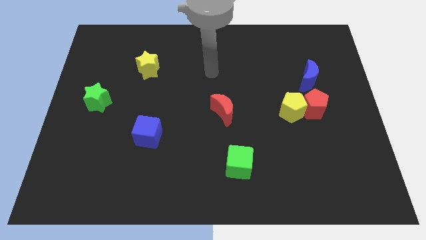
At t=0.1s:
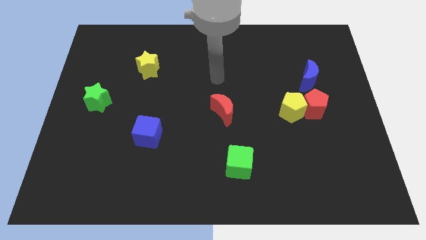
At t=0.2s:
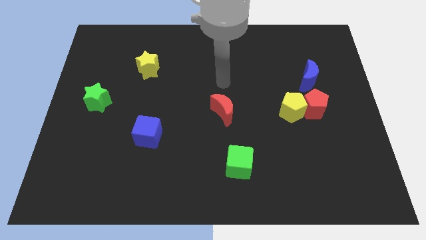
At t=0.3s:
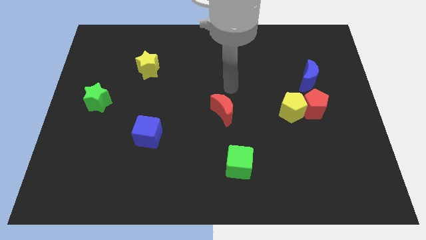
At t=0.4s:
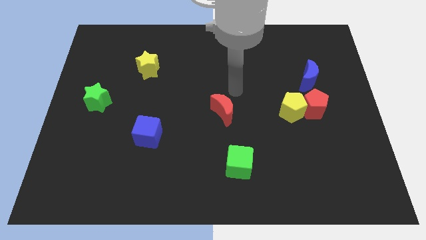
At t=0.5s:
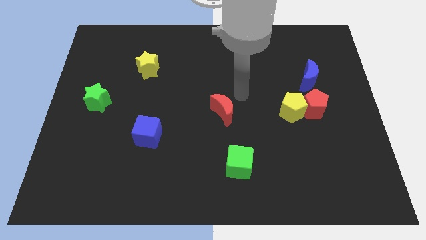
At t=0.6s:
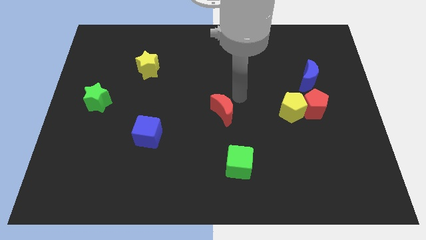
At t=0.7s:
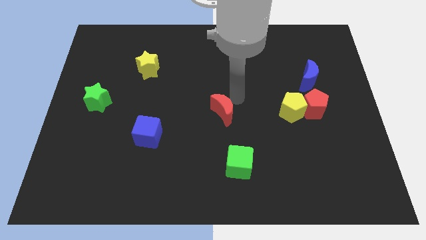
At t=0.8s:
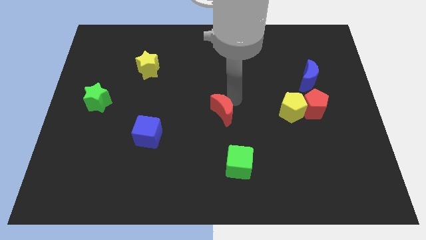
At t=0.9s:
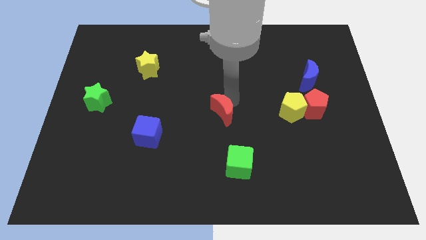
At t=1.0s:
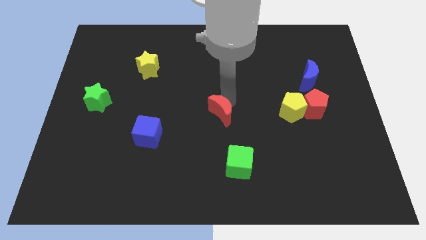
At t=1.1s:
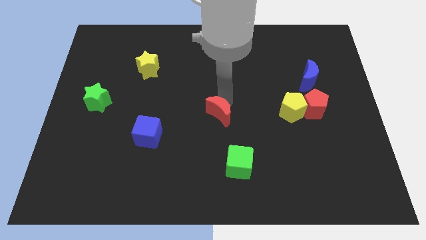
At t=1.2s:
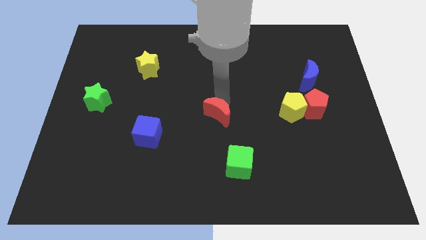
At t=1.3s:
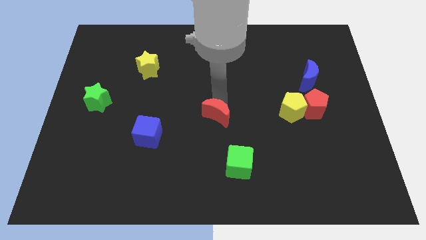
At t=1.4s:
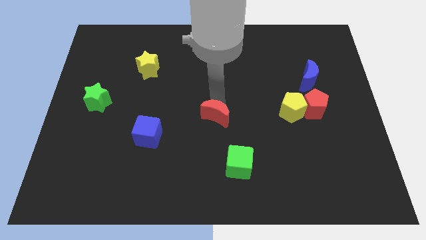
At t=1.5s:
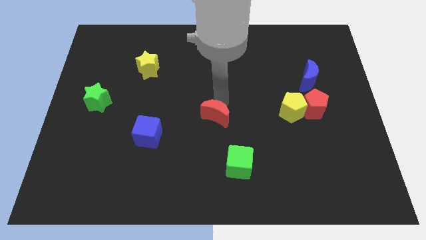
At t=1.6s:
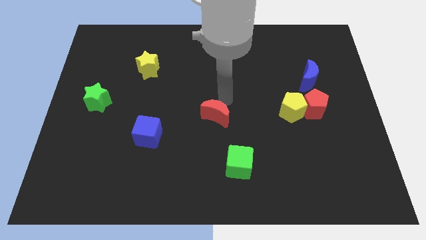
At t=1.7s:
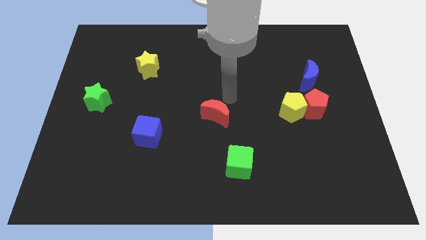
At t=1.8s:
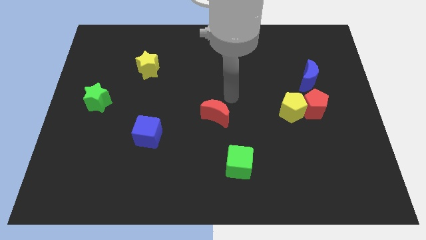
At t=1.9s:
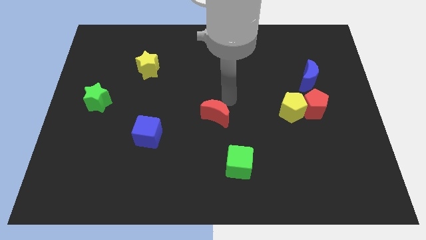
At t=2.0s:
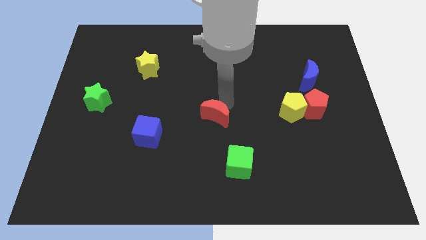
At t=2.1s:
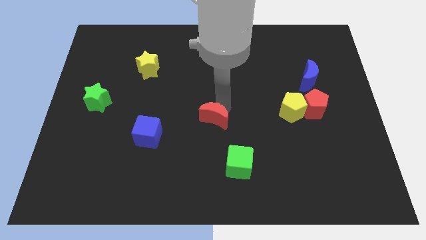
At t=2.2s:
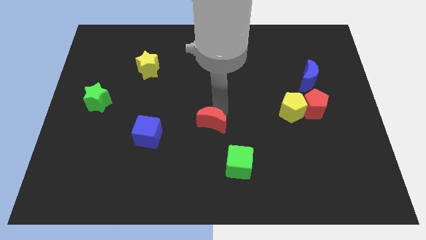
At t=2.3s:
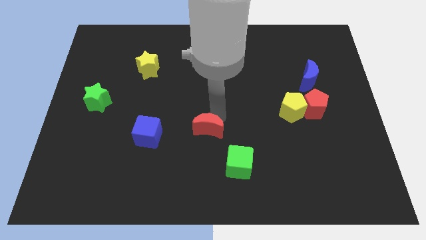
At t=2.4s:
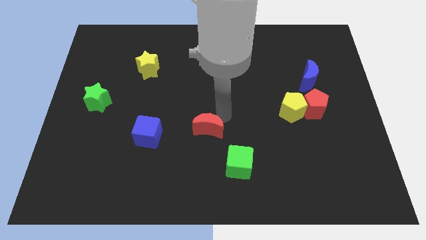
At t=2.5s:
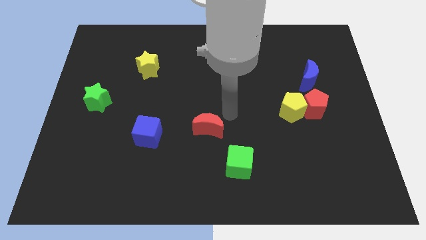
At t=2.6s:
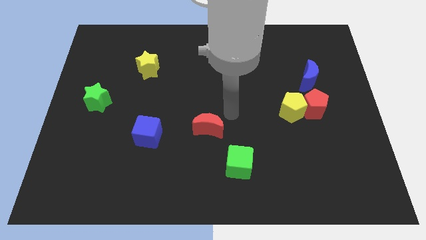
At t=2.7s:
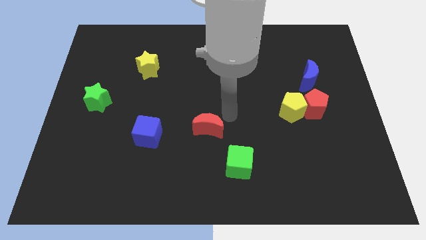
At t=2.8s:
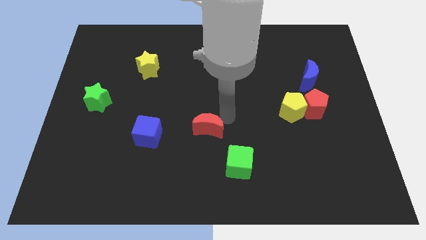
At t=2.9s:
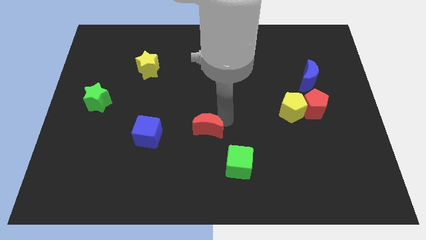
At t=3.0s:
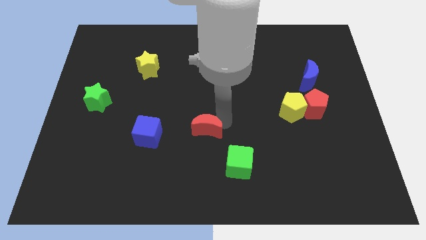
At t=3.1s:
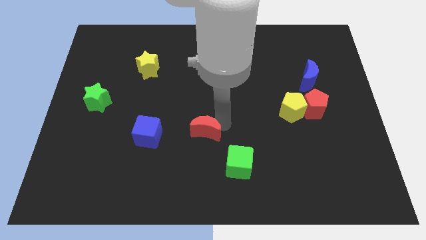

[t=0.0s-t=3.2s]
slide the red moon downwards and then left slightly

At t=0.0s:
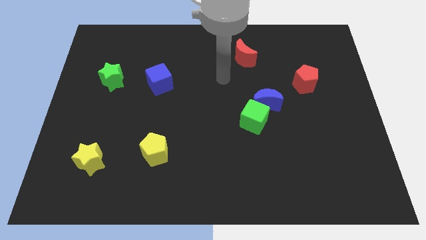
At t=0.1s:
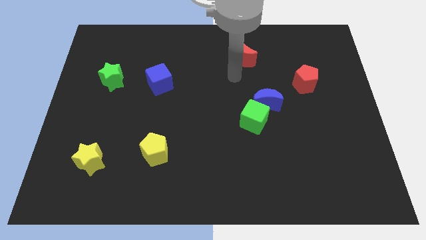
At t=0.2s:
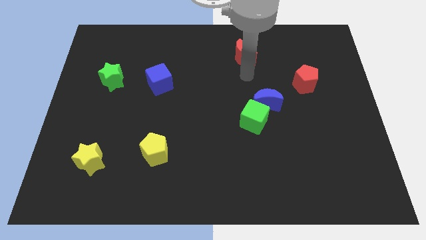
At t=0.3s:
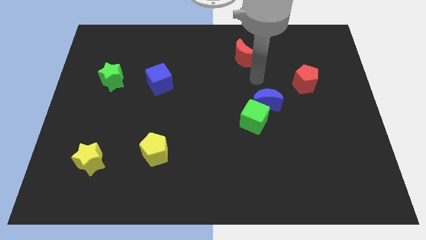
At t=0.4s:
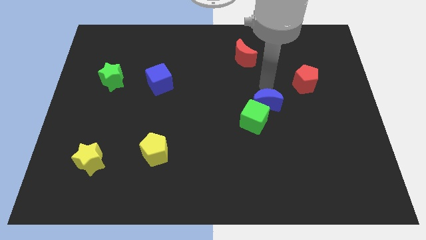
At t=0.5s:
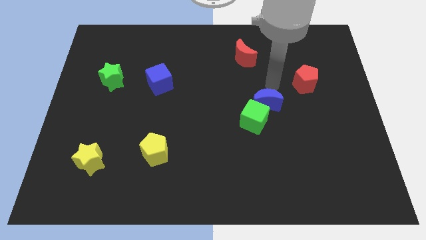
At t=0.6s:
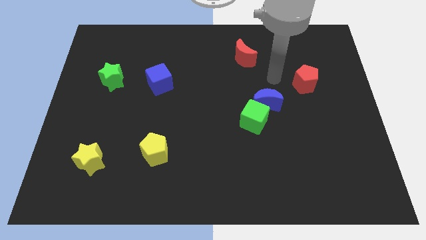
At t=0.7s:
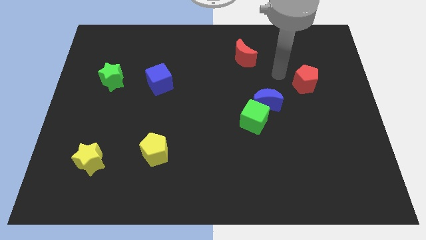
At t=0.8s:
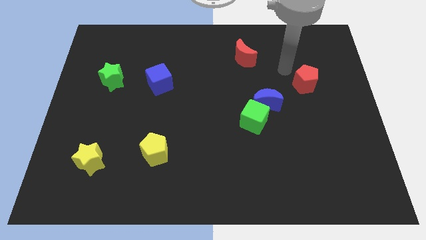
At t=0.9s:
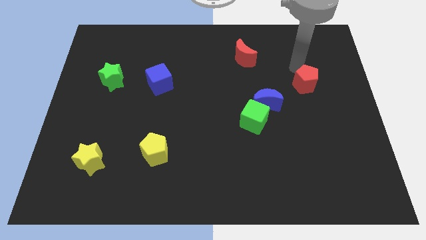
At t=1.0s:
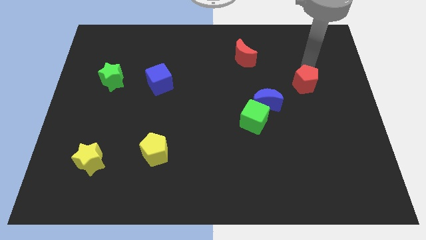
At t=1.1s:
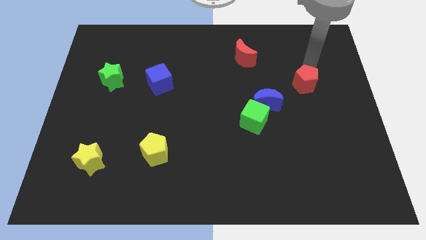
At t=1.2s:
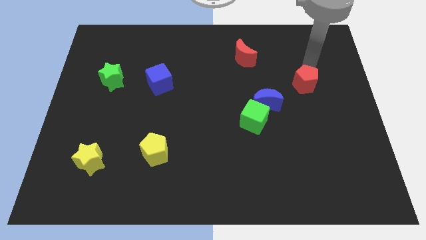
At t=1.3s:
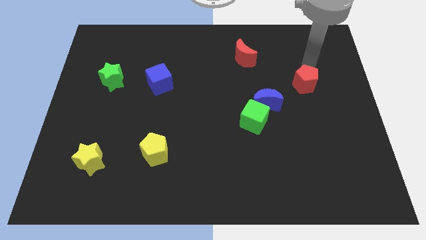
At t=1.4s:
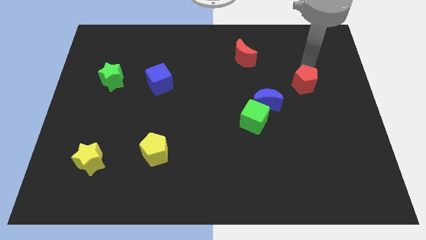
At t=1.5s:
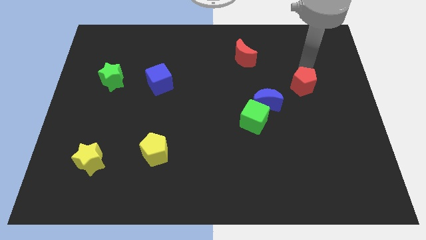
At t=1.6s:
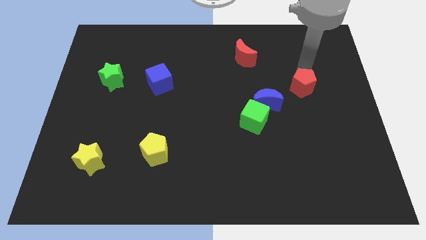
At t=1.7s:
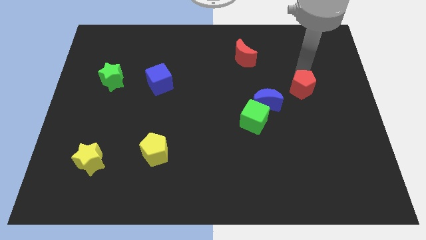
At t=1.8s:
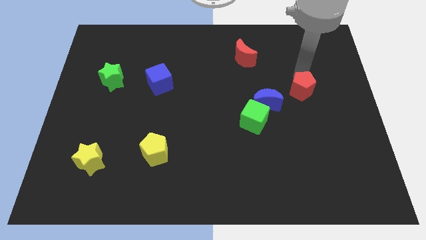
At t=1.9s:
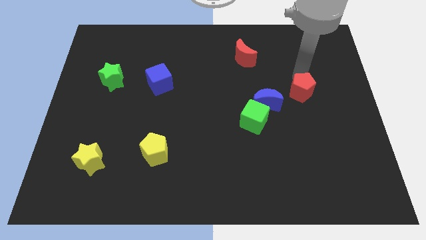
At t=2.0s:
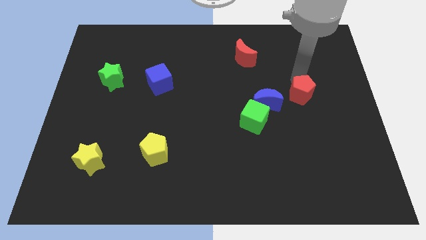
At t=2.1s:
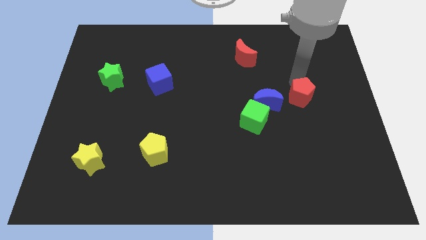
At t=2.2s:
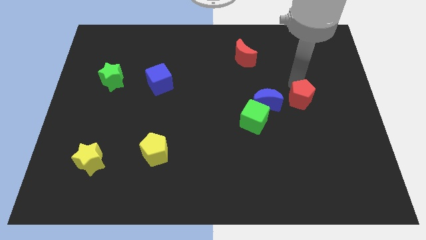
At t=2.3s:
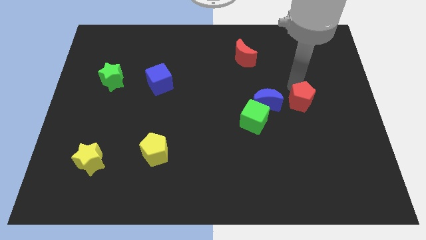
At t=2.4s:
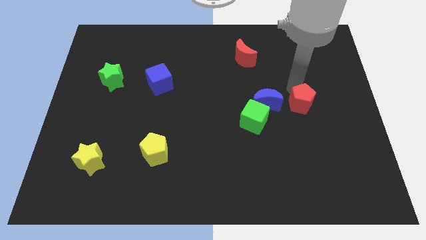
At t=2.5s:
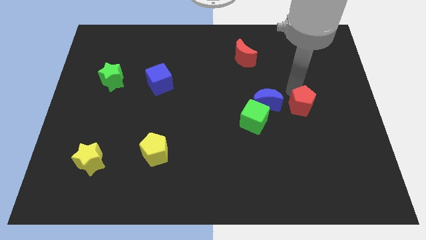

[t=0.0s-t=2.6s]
slightly slide the red pentagon down

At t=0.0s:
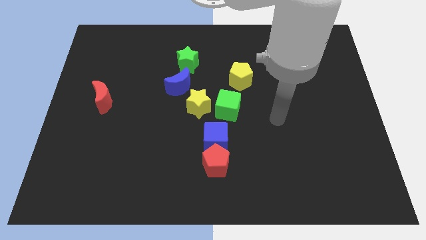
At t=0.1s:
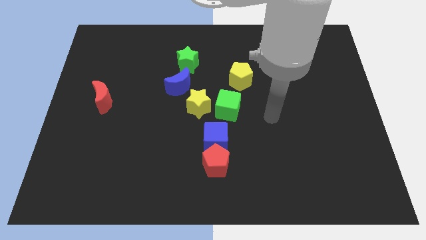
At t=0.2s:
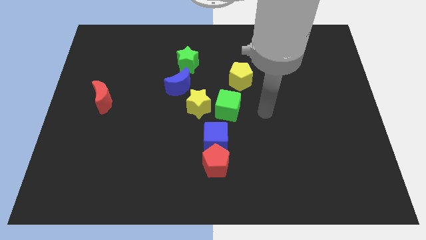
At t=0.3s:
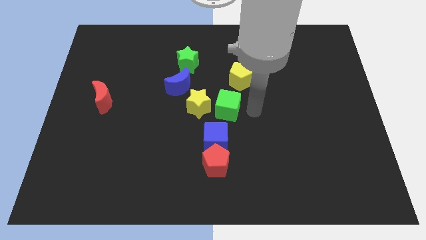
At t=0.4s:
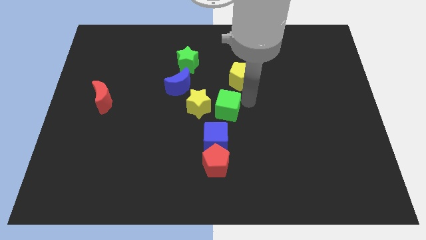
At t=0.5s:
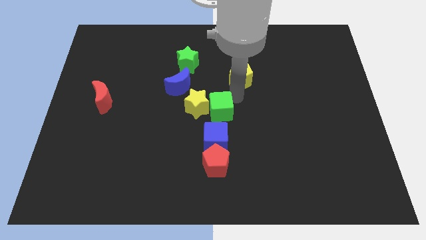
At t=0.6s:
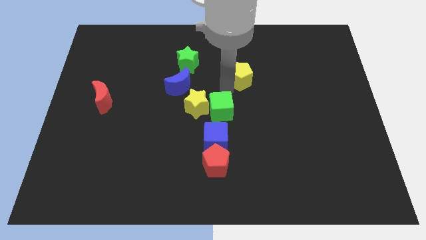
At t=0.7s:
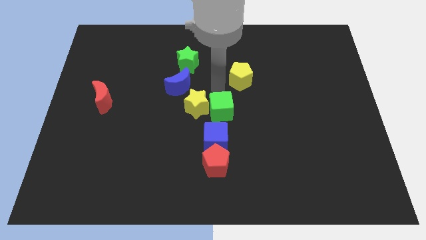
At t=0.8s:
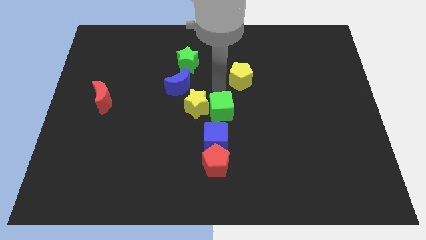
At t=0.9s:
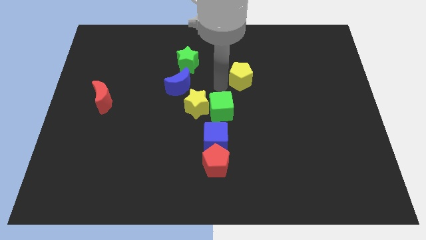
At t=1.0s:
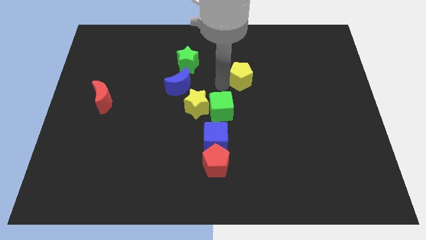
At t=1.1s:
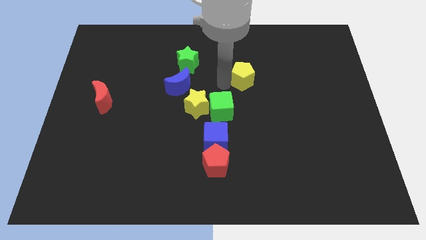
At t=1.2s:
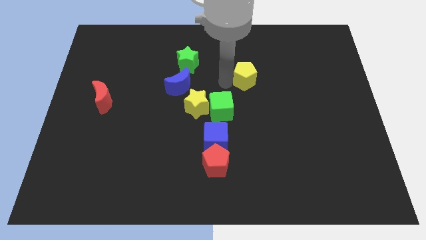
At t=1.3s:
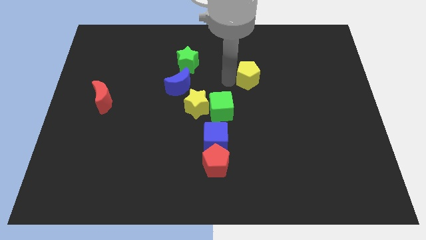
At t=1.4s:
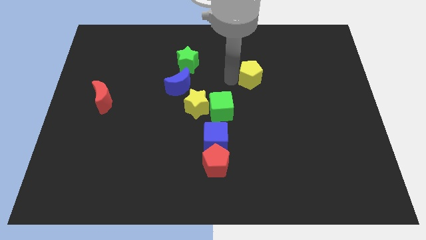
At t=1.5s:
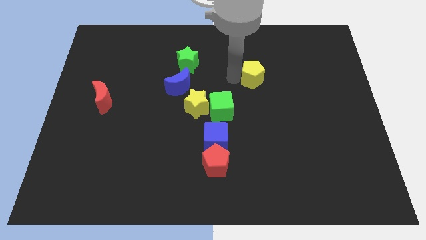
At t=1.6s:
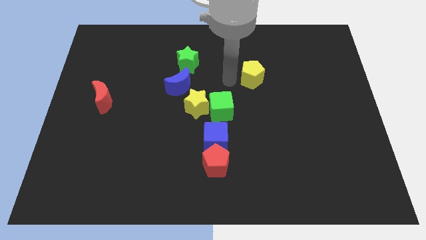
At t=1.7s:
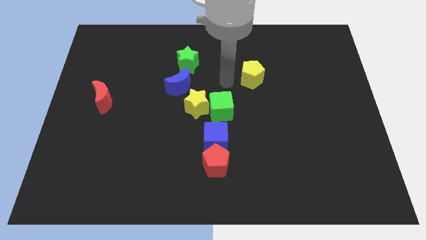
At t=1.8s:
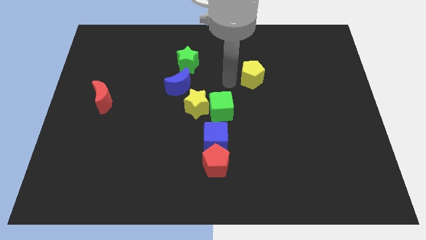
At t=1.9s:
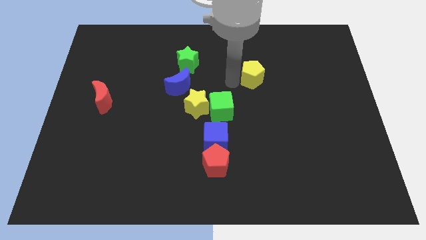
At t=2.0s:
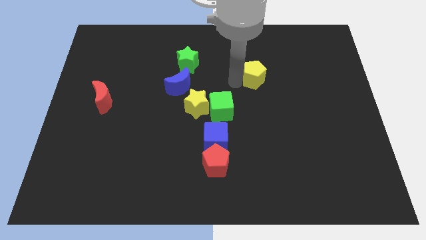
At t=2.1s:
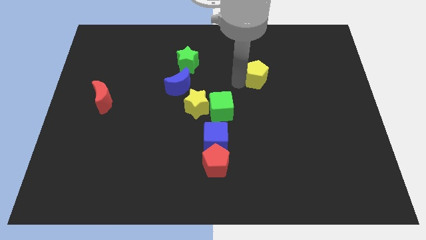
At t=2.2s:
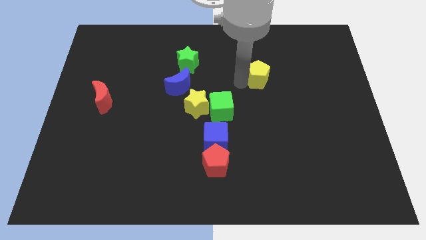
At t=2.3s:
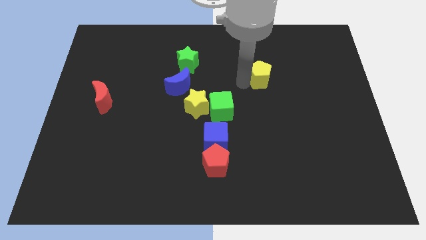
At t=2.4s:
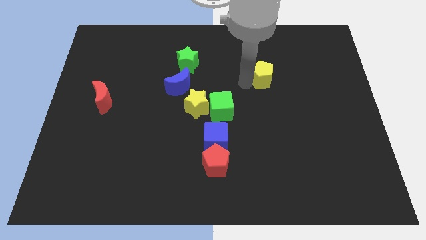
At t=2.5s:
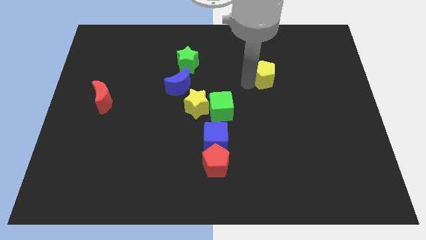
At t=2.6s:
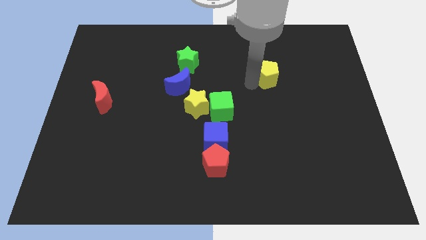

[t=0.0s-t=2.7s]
push the yellow pentagon somewhat right

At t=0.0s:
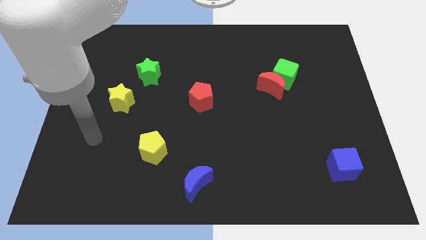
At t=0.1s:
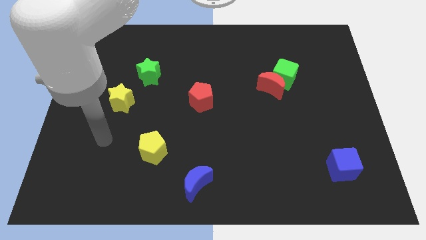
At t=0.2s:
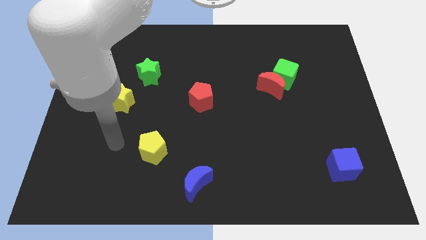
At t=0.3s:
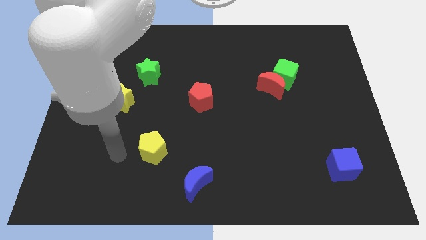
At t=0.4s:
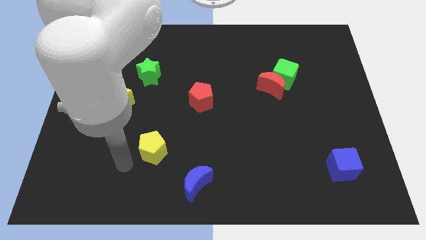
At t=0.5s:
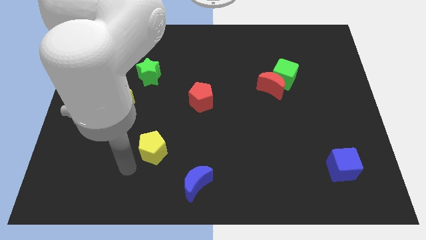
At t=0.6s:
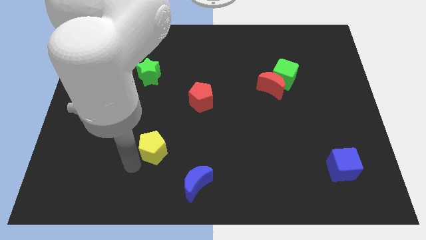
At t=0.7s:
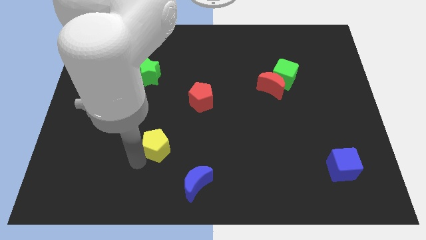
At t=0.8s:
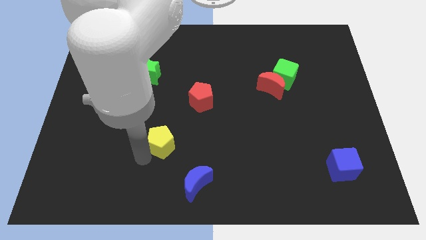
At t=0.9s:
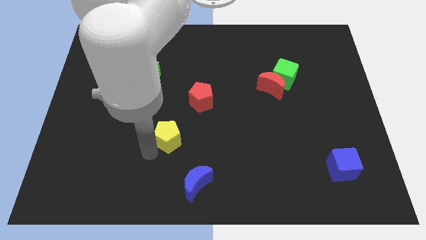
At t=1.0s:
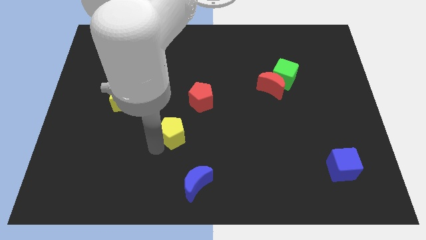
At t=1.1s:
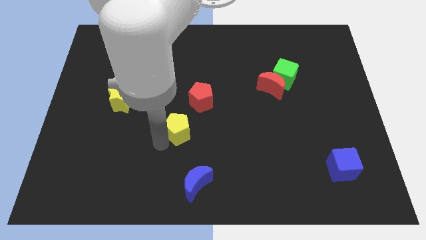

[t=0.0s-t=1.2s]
slide the yellow pentagon upwards and to the right somewhat
